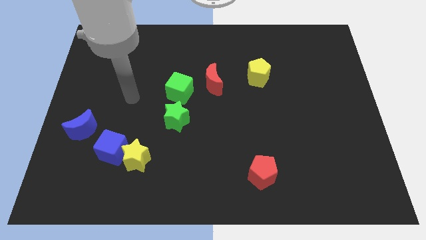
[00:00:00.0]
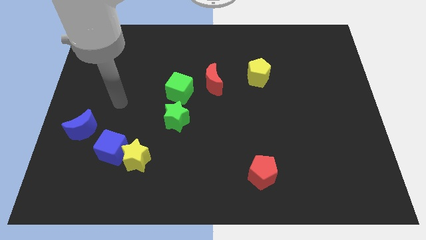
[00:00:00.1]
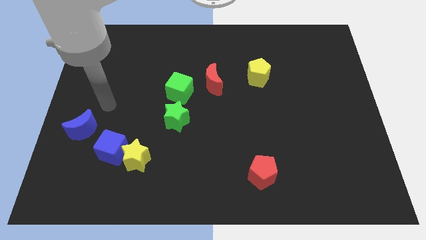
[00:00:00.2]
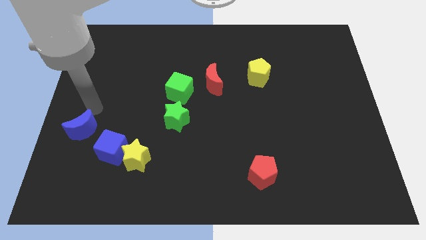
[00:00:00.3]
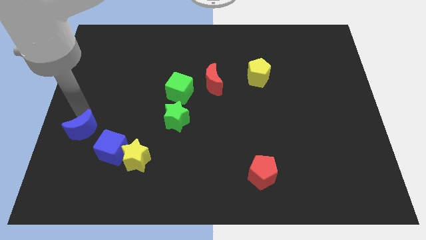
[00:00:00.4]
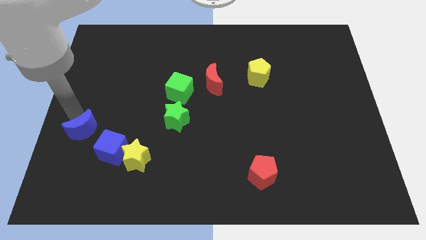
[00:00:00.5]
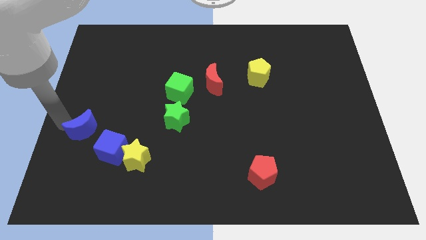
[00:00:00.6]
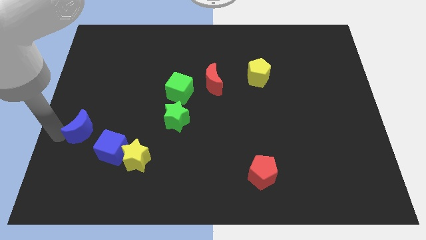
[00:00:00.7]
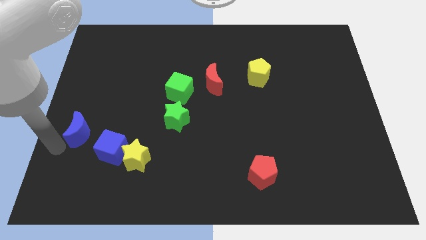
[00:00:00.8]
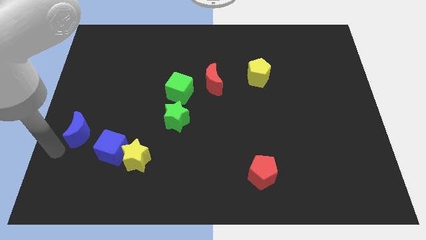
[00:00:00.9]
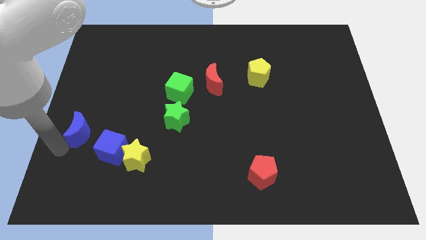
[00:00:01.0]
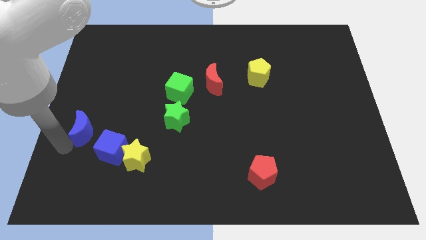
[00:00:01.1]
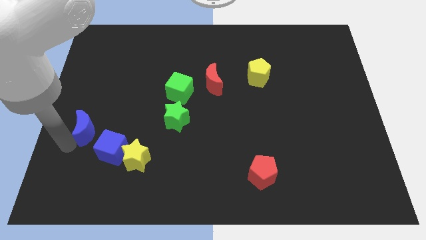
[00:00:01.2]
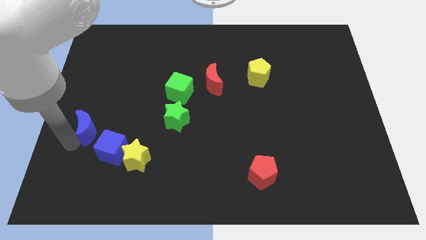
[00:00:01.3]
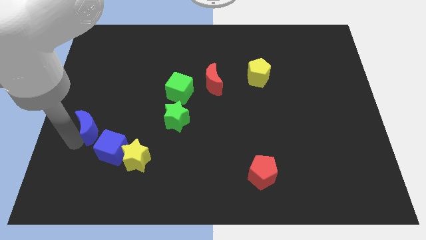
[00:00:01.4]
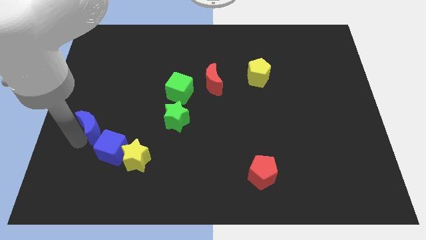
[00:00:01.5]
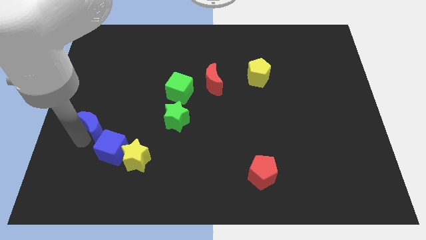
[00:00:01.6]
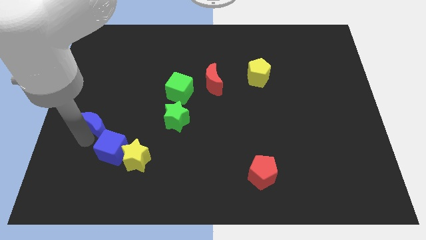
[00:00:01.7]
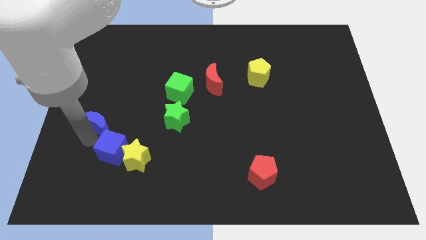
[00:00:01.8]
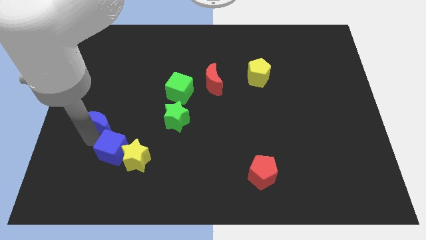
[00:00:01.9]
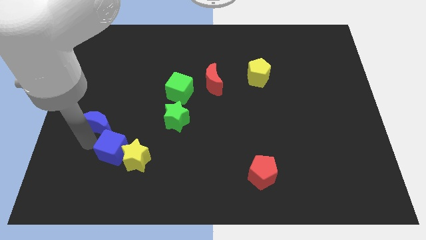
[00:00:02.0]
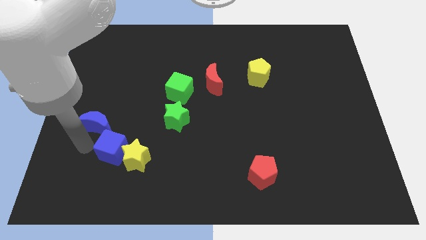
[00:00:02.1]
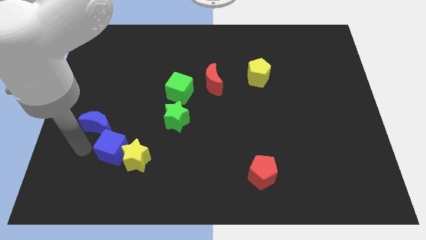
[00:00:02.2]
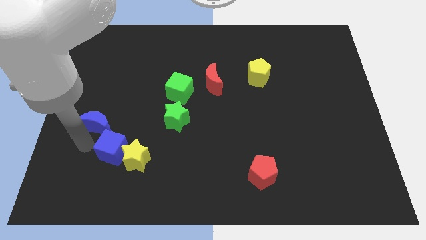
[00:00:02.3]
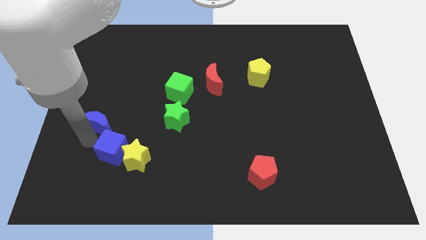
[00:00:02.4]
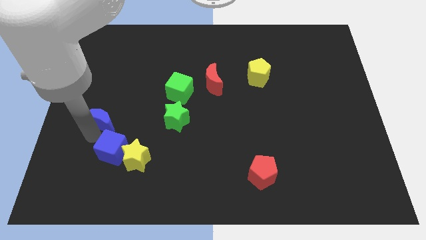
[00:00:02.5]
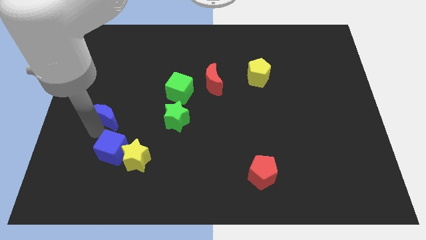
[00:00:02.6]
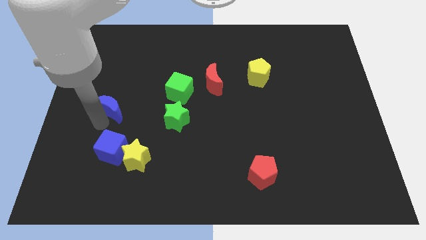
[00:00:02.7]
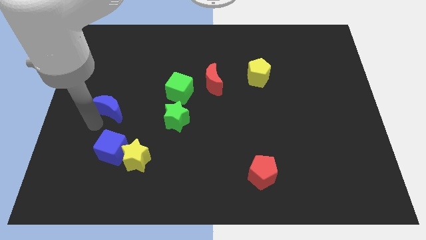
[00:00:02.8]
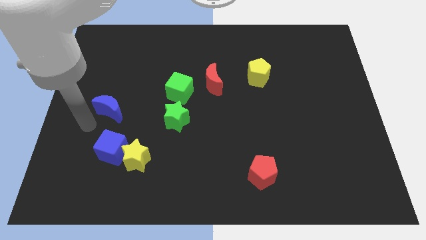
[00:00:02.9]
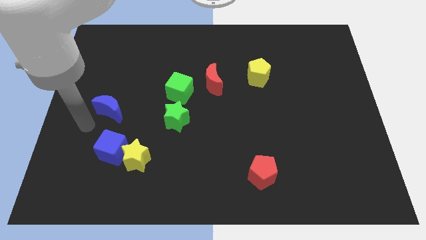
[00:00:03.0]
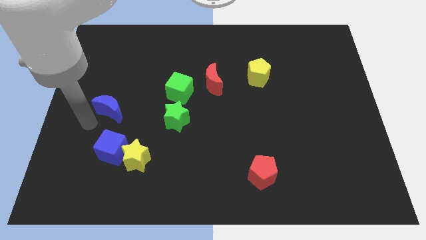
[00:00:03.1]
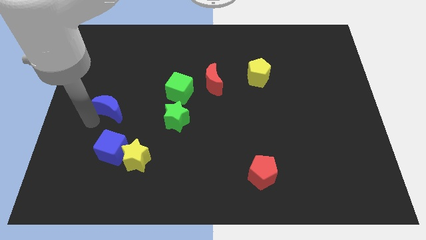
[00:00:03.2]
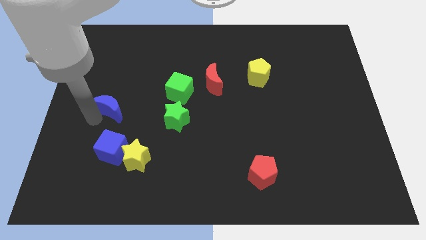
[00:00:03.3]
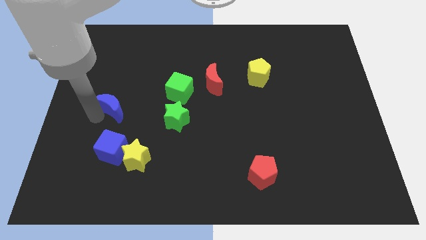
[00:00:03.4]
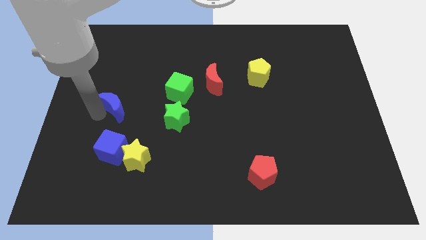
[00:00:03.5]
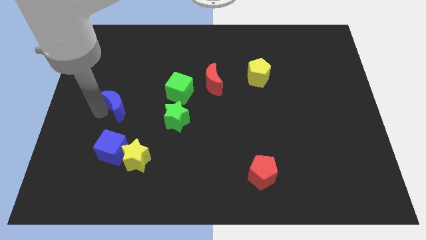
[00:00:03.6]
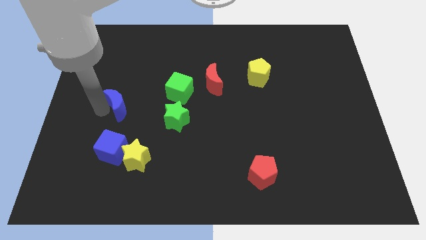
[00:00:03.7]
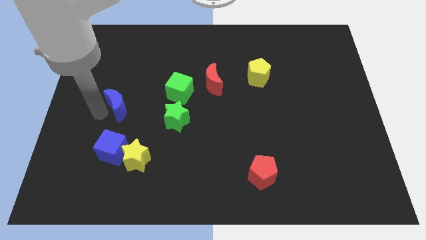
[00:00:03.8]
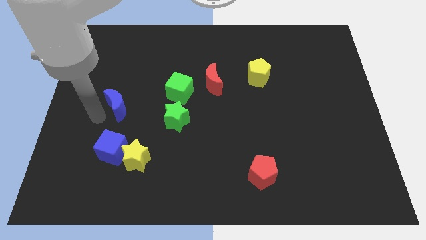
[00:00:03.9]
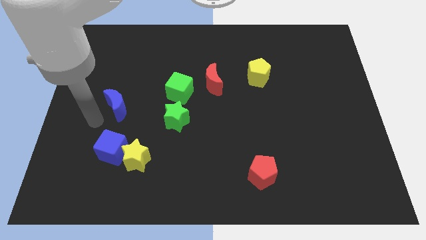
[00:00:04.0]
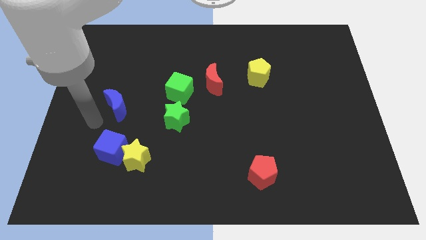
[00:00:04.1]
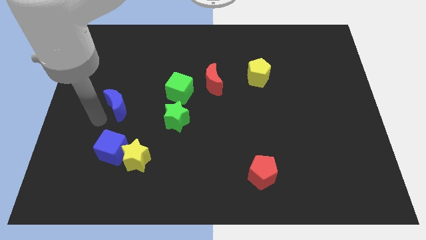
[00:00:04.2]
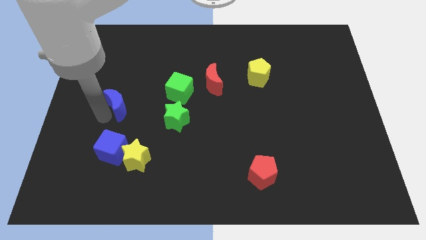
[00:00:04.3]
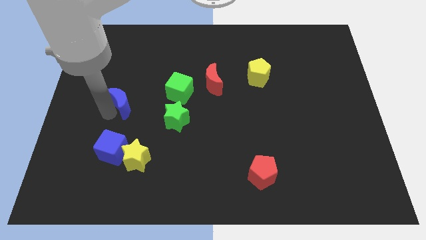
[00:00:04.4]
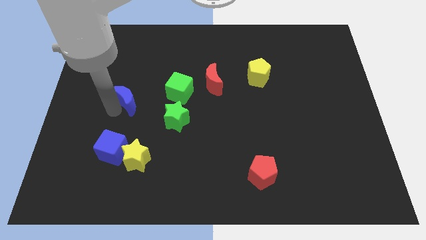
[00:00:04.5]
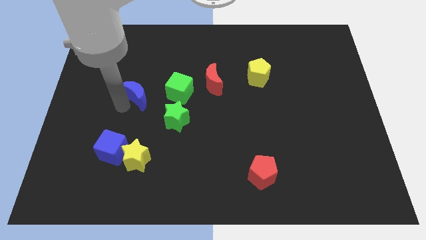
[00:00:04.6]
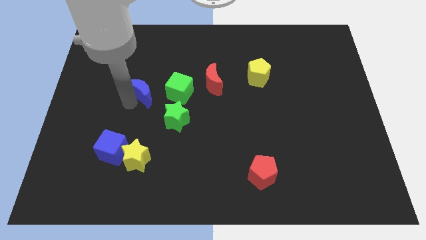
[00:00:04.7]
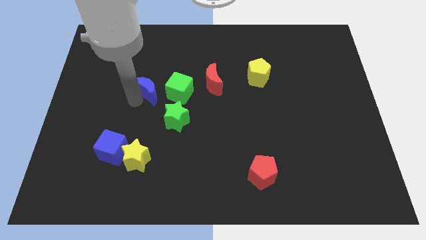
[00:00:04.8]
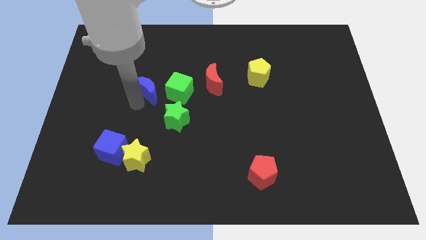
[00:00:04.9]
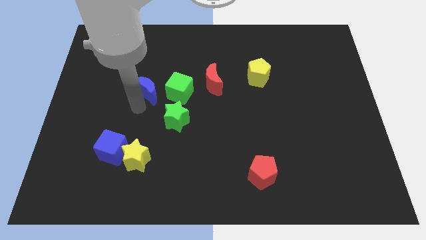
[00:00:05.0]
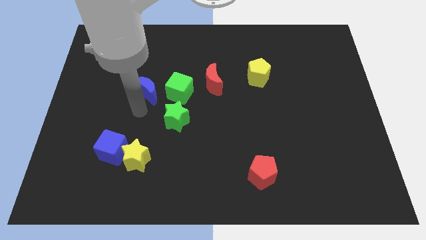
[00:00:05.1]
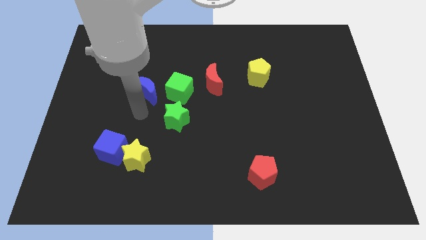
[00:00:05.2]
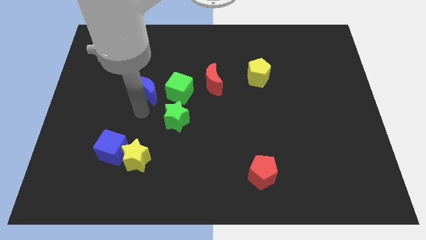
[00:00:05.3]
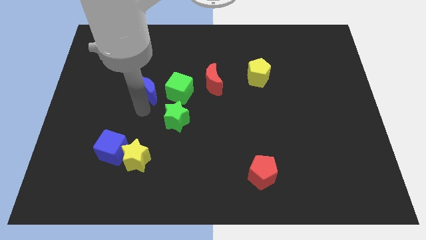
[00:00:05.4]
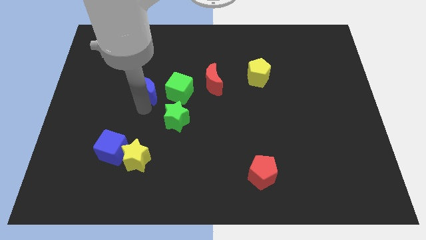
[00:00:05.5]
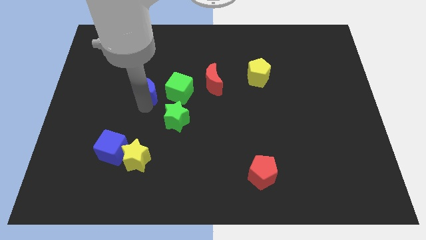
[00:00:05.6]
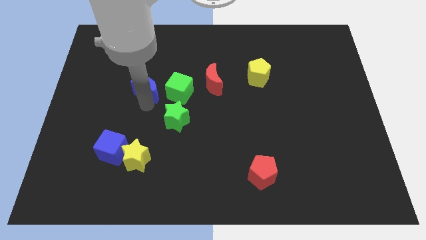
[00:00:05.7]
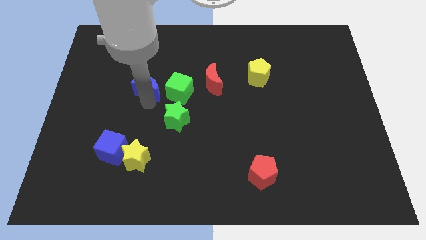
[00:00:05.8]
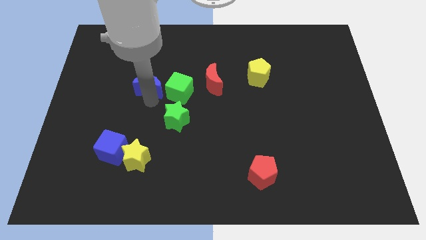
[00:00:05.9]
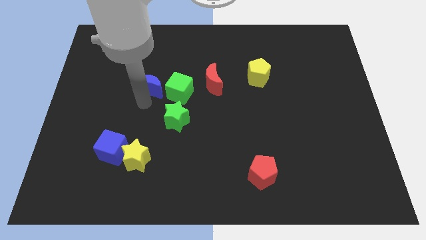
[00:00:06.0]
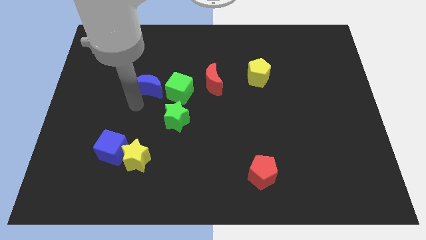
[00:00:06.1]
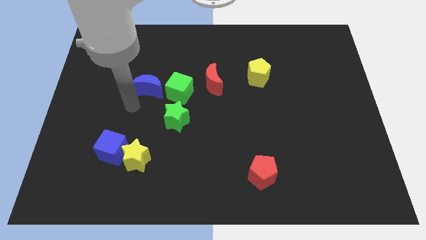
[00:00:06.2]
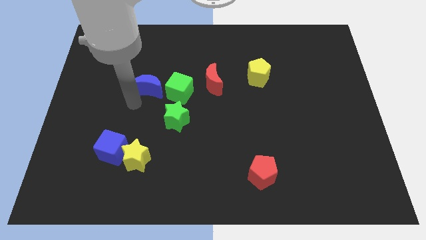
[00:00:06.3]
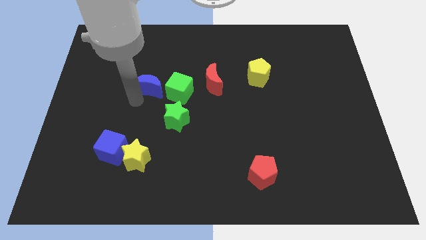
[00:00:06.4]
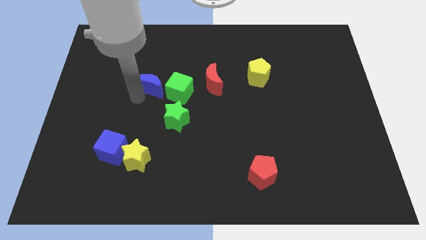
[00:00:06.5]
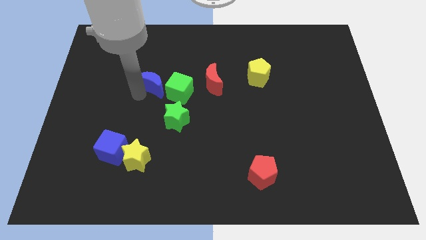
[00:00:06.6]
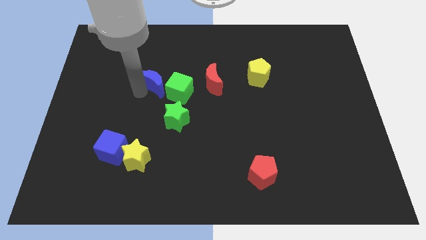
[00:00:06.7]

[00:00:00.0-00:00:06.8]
slide the blue moon up and then to the right

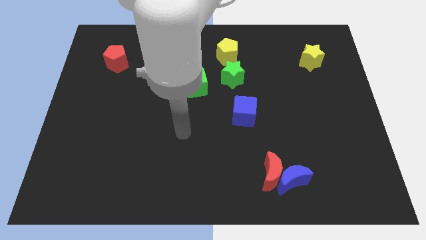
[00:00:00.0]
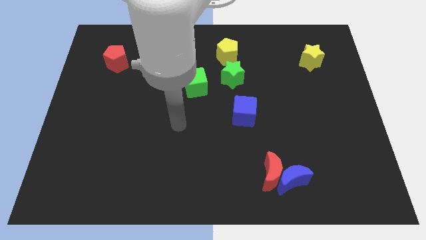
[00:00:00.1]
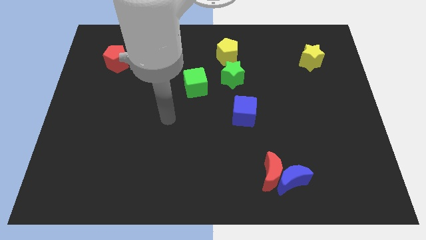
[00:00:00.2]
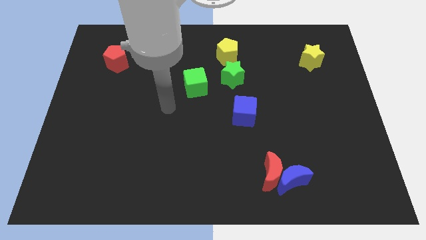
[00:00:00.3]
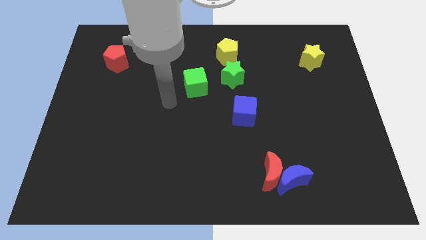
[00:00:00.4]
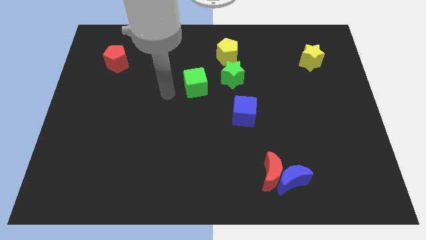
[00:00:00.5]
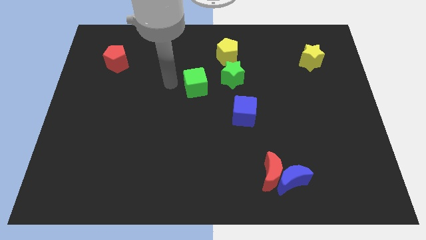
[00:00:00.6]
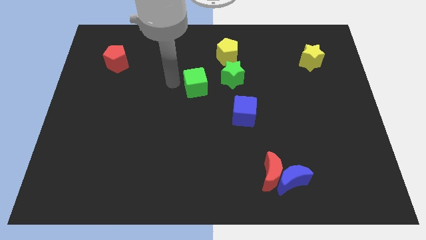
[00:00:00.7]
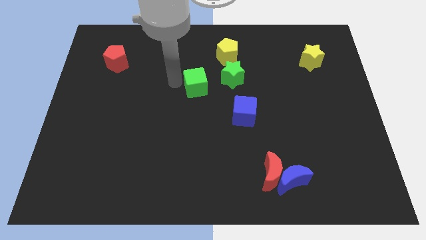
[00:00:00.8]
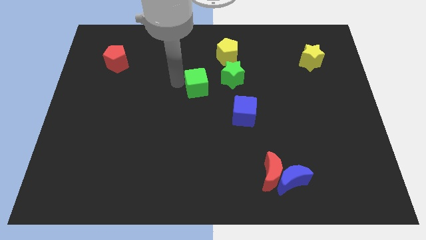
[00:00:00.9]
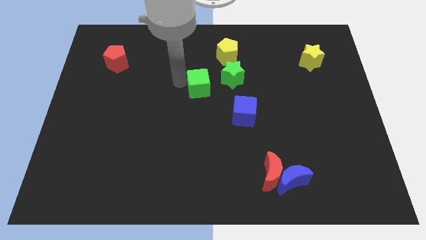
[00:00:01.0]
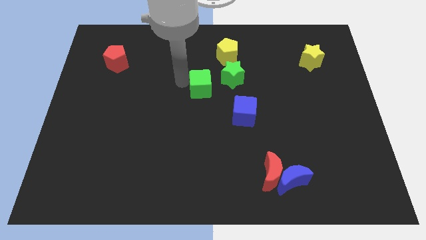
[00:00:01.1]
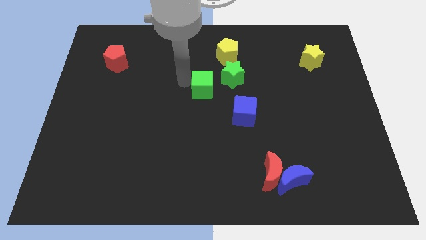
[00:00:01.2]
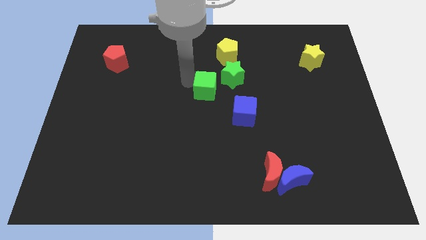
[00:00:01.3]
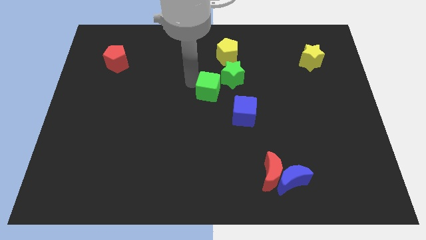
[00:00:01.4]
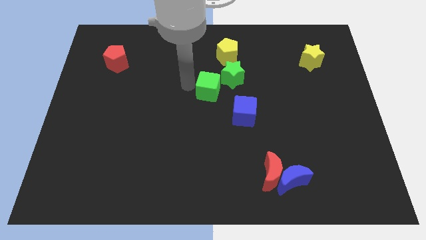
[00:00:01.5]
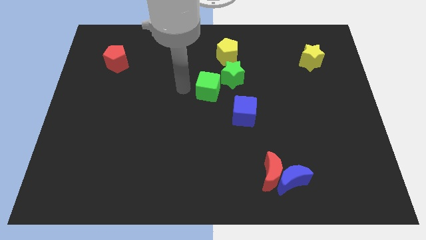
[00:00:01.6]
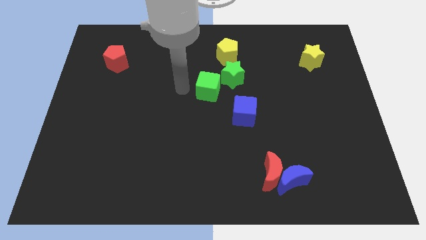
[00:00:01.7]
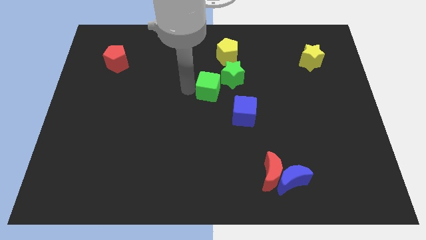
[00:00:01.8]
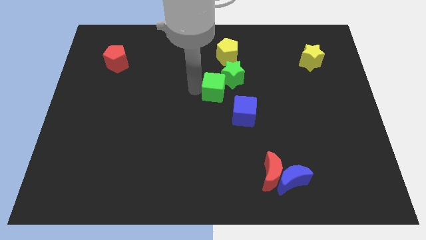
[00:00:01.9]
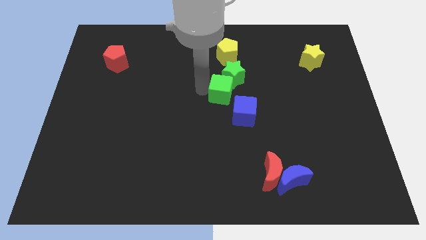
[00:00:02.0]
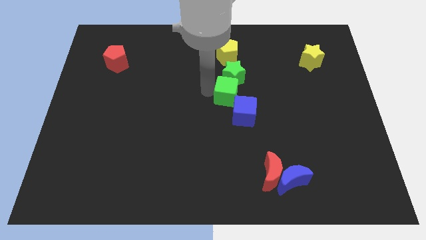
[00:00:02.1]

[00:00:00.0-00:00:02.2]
slightly move the green cube right
